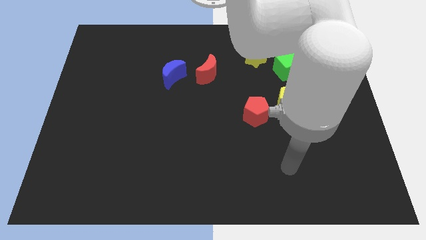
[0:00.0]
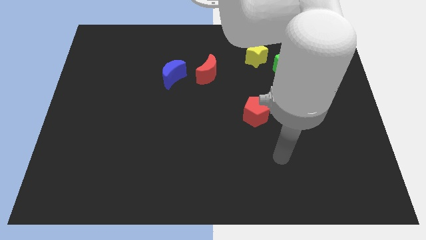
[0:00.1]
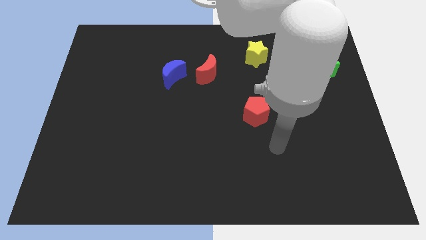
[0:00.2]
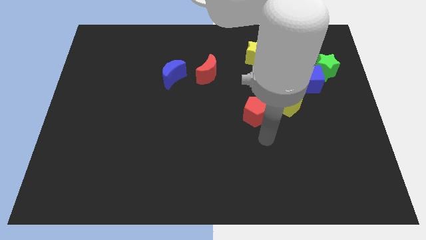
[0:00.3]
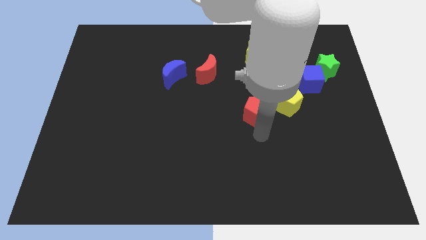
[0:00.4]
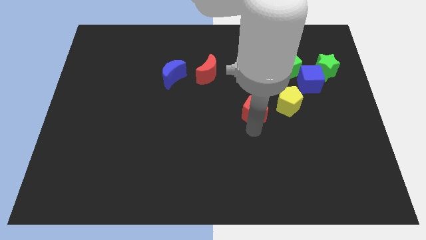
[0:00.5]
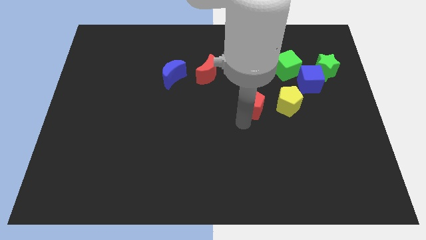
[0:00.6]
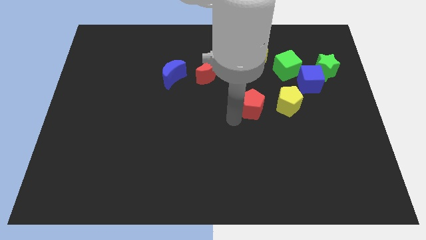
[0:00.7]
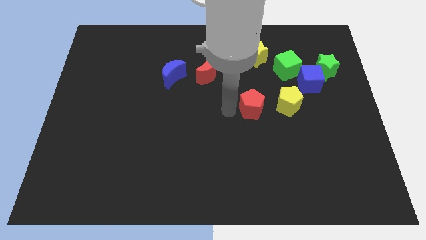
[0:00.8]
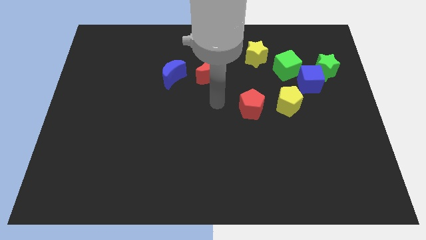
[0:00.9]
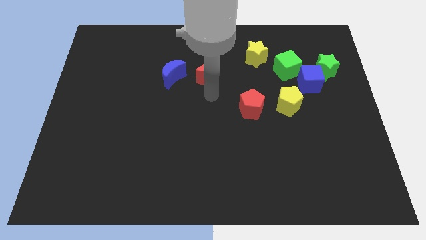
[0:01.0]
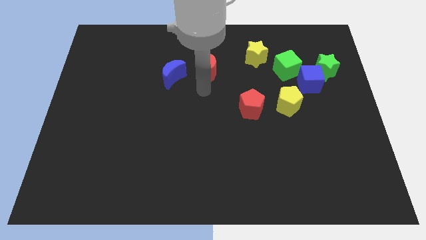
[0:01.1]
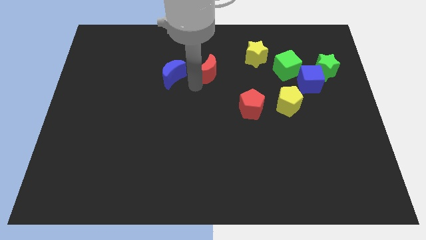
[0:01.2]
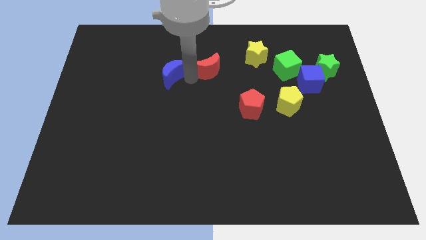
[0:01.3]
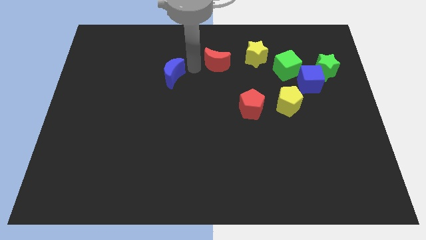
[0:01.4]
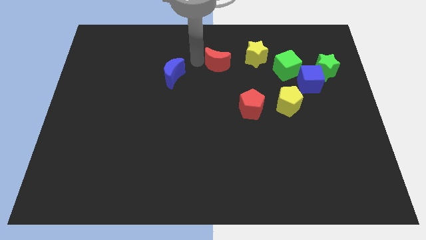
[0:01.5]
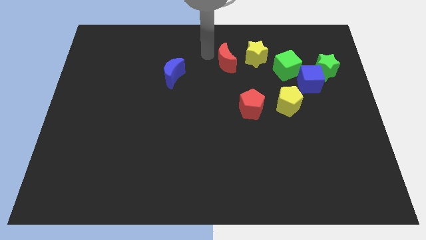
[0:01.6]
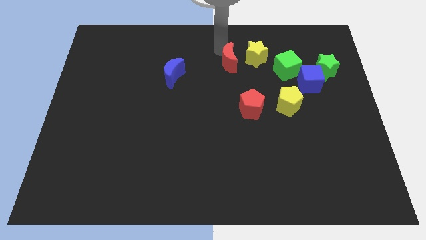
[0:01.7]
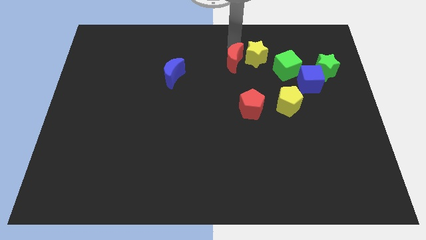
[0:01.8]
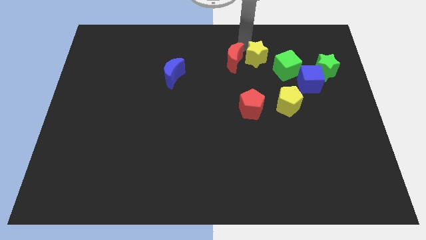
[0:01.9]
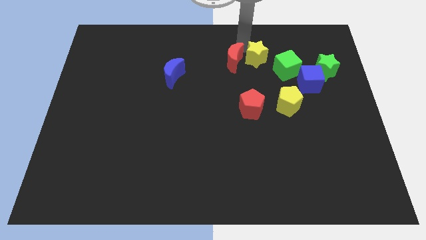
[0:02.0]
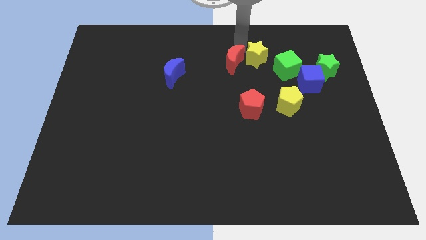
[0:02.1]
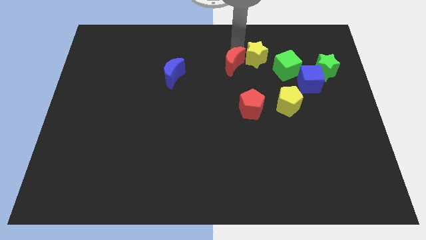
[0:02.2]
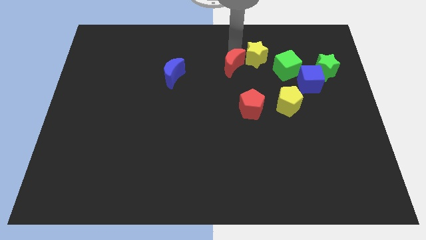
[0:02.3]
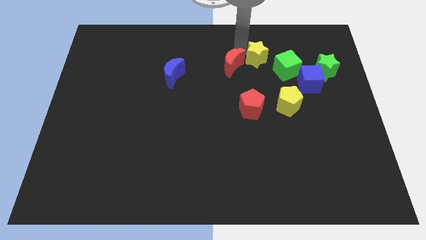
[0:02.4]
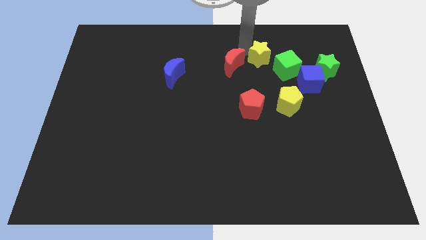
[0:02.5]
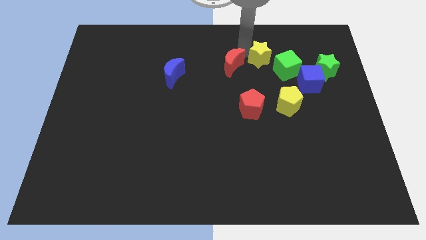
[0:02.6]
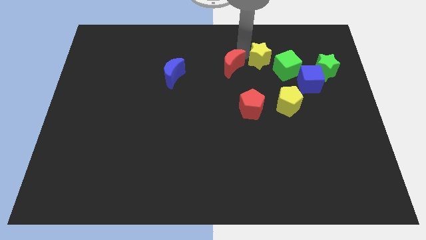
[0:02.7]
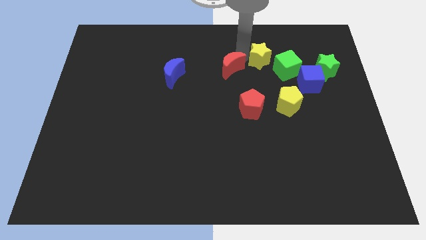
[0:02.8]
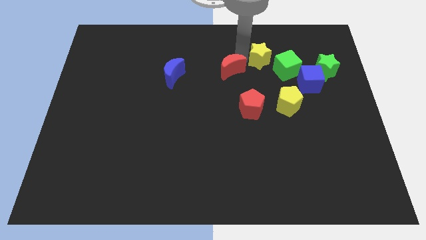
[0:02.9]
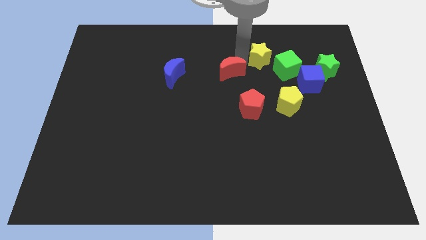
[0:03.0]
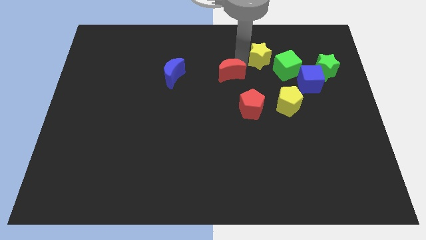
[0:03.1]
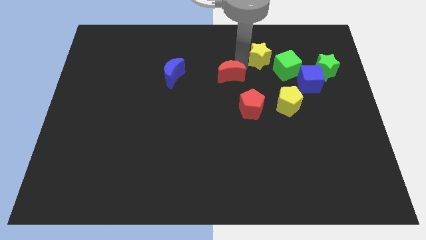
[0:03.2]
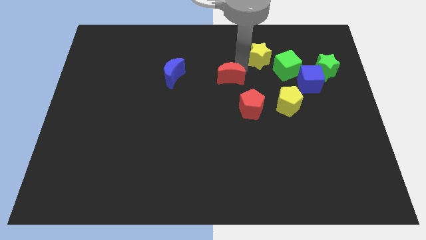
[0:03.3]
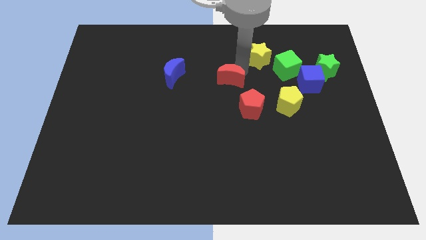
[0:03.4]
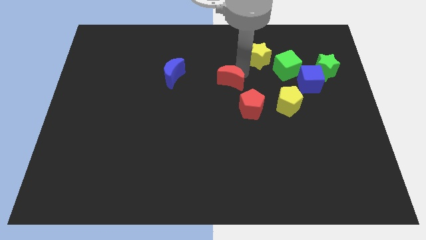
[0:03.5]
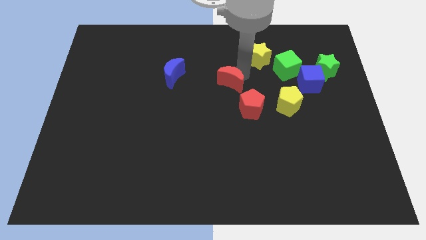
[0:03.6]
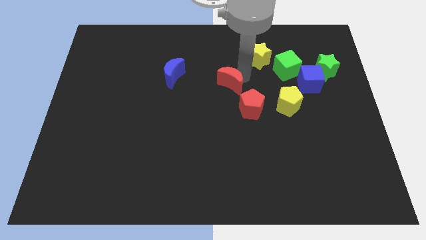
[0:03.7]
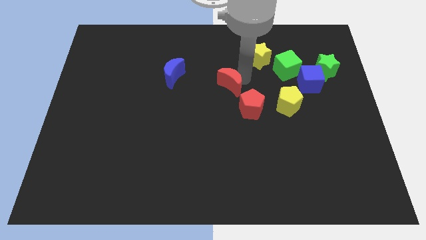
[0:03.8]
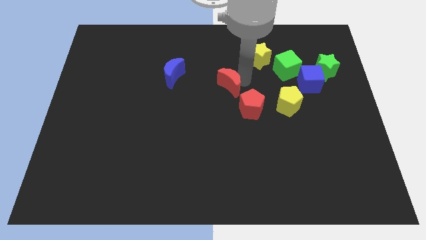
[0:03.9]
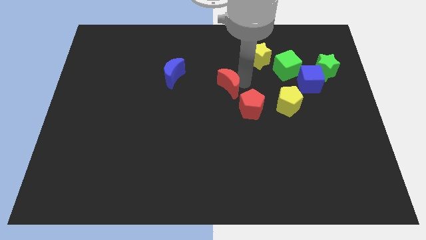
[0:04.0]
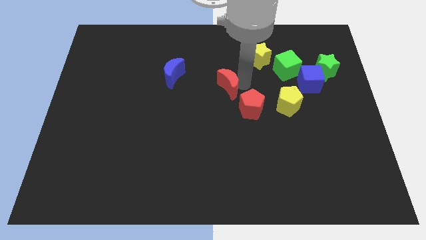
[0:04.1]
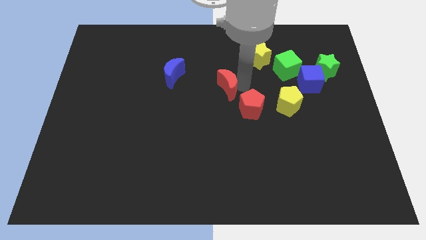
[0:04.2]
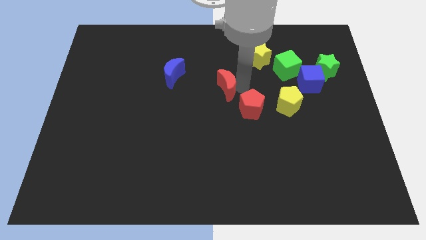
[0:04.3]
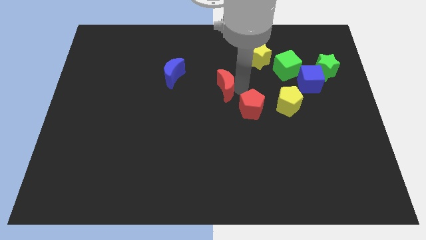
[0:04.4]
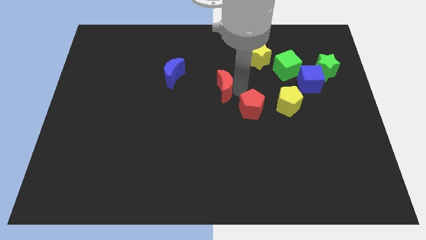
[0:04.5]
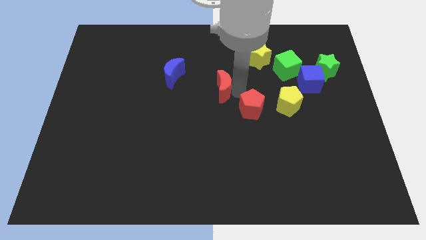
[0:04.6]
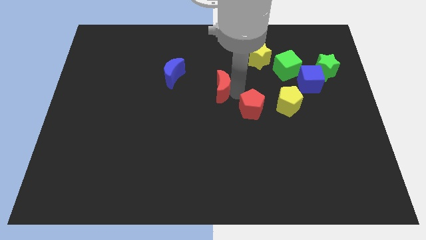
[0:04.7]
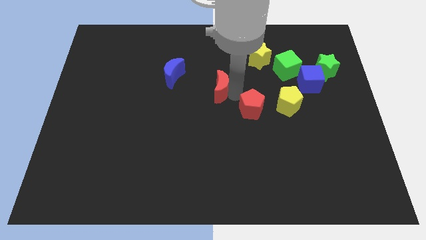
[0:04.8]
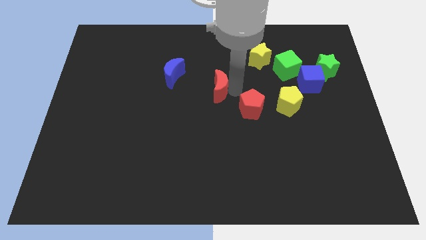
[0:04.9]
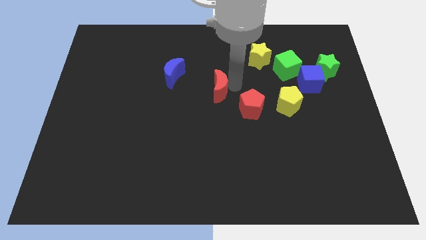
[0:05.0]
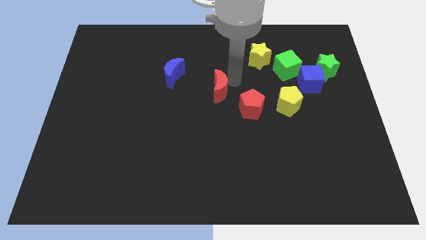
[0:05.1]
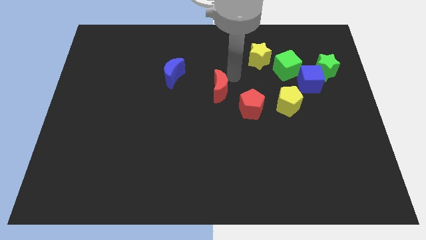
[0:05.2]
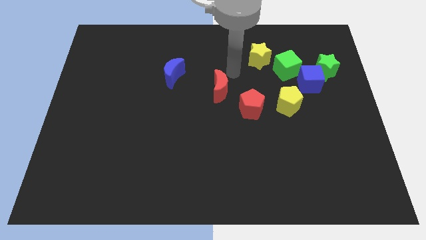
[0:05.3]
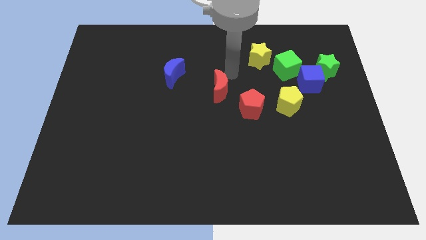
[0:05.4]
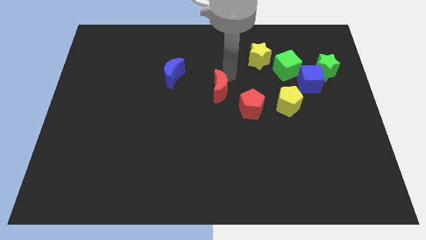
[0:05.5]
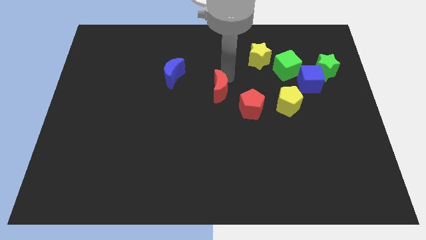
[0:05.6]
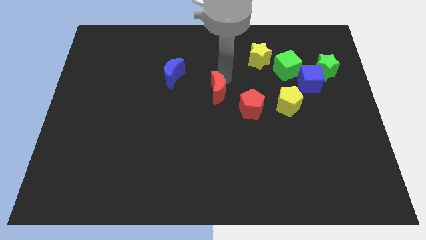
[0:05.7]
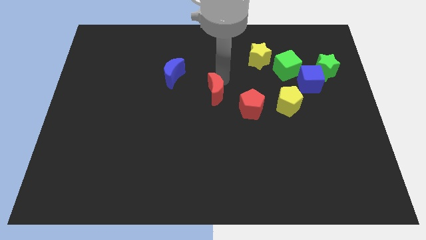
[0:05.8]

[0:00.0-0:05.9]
put the red moon to the left side of the red pentagon

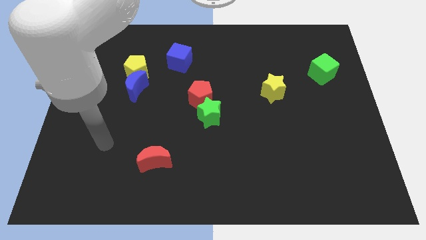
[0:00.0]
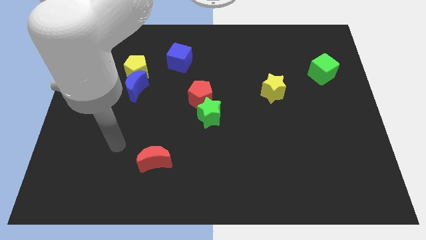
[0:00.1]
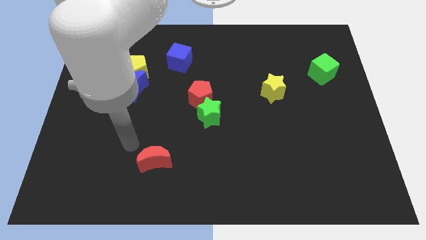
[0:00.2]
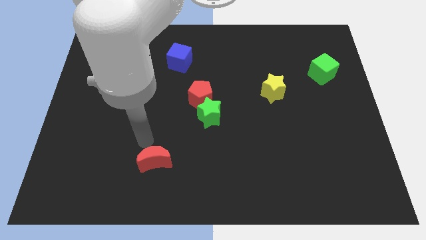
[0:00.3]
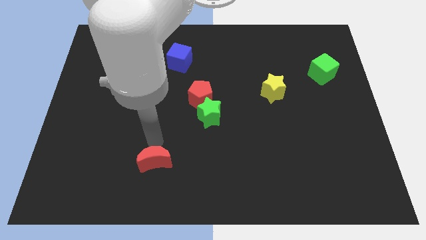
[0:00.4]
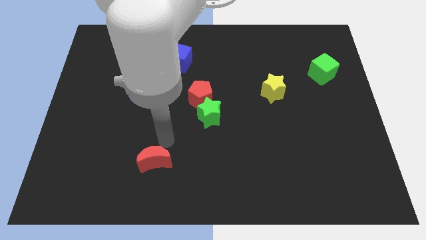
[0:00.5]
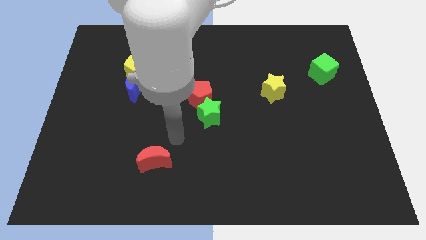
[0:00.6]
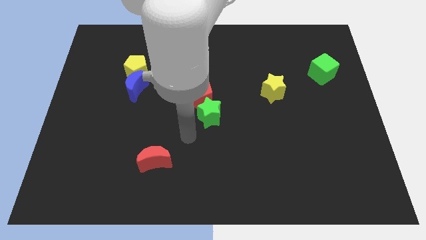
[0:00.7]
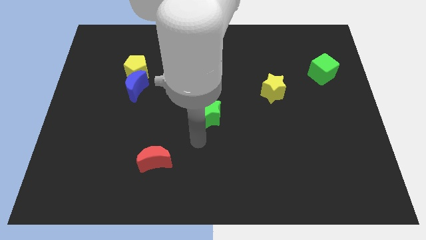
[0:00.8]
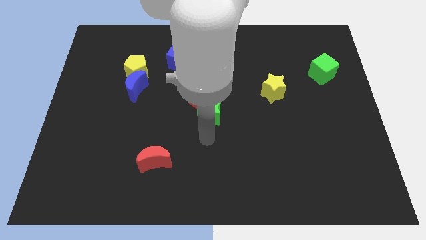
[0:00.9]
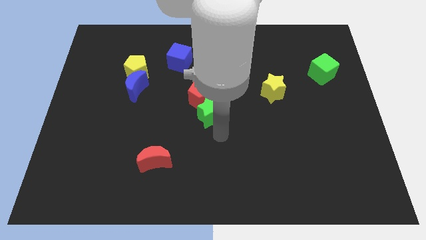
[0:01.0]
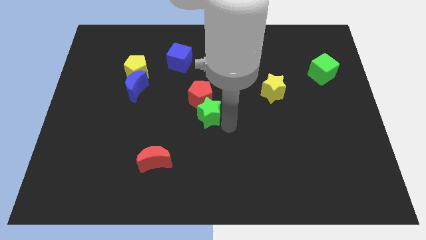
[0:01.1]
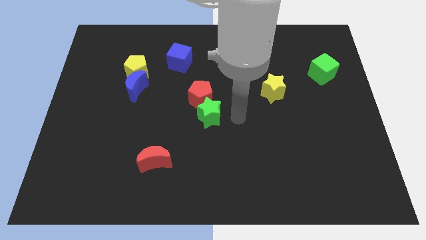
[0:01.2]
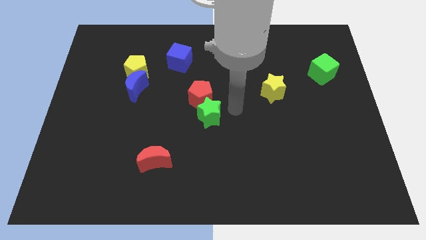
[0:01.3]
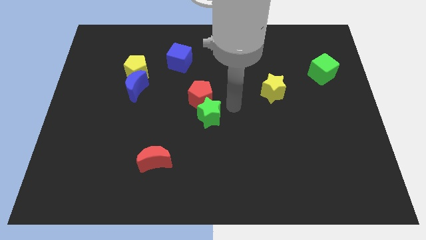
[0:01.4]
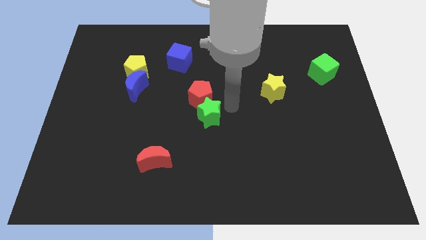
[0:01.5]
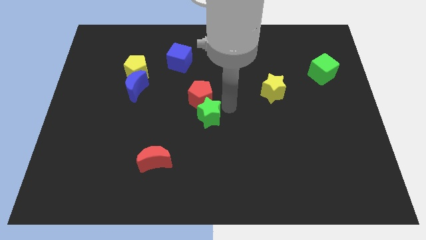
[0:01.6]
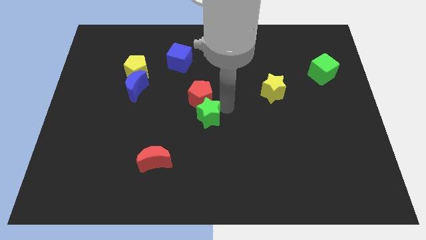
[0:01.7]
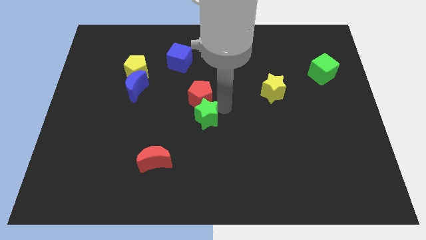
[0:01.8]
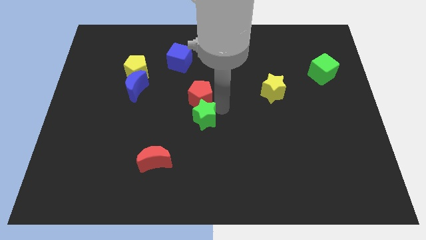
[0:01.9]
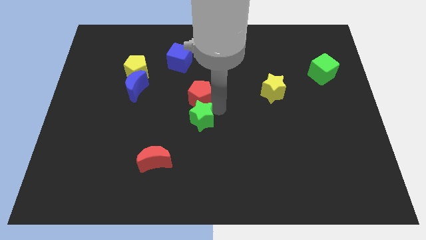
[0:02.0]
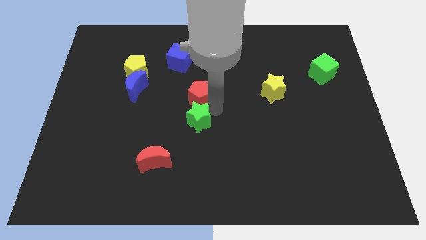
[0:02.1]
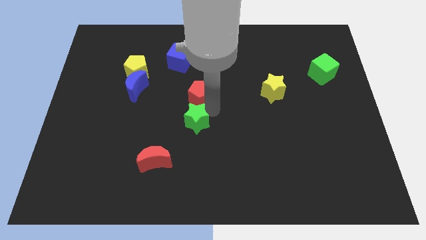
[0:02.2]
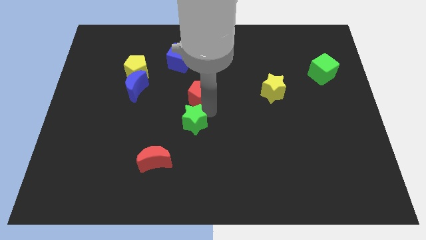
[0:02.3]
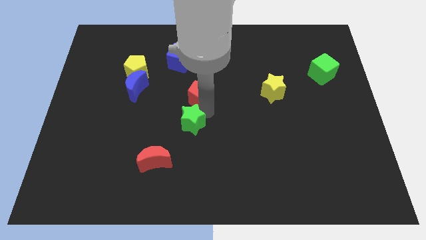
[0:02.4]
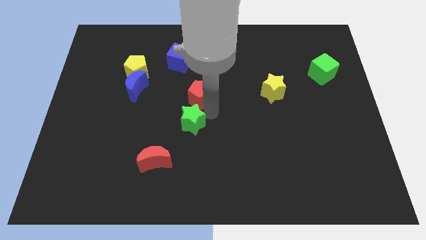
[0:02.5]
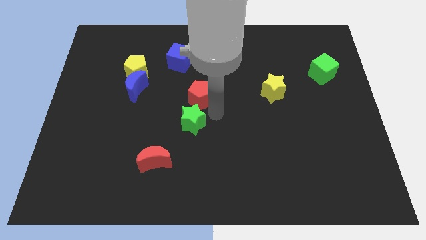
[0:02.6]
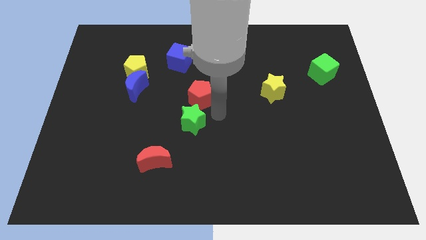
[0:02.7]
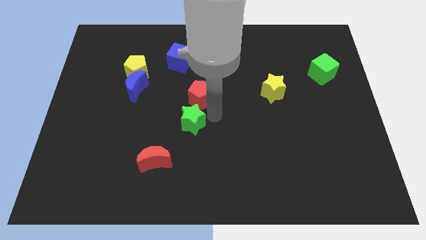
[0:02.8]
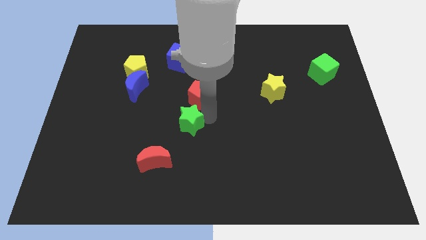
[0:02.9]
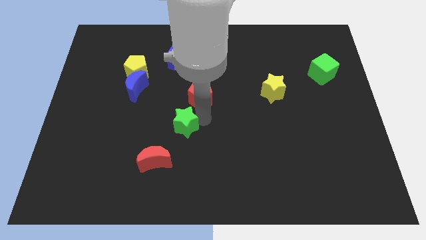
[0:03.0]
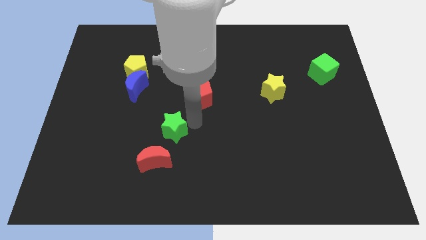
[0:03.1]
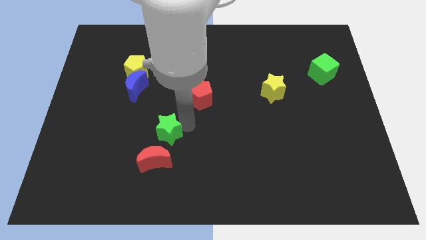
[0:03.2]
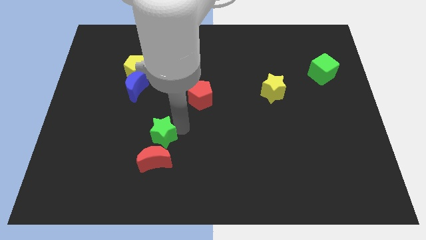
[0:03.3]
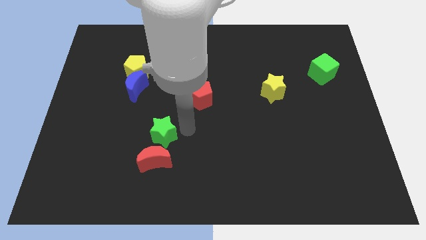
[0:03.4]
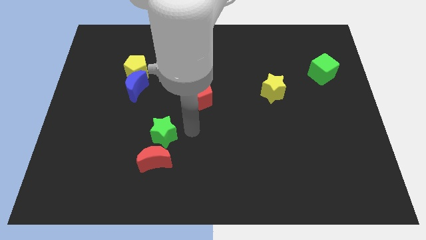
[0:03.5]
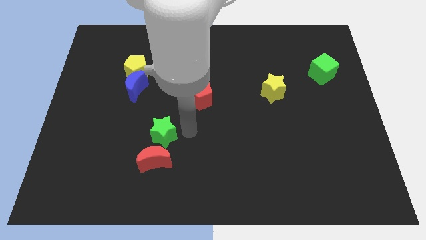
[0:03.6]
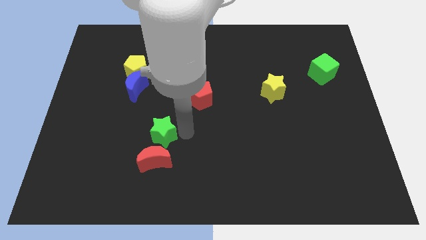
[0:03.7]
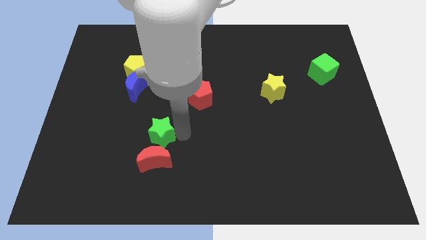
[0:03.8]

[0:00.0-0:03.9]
slide the green star to the top left of the red moon
